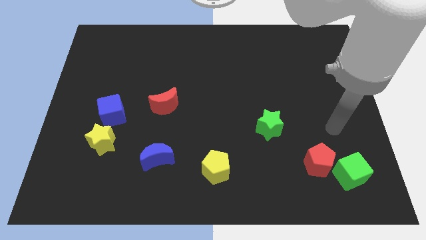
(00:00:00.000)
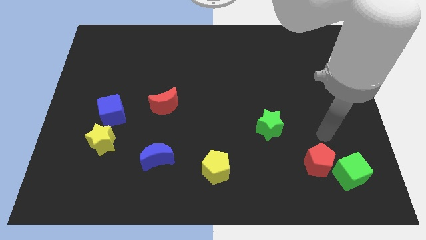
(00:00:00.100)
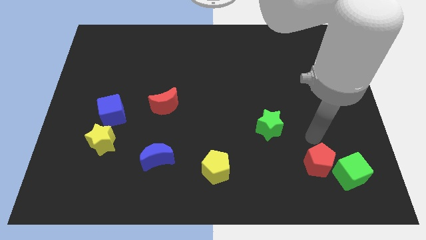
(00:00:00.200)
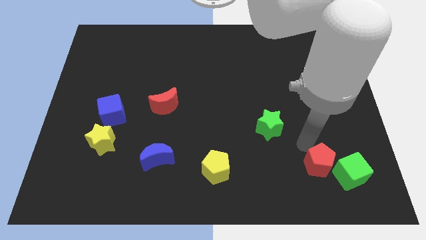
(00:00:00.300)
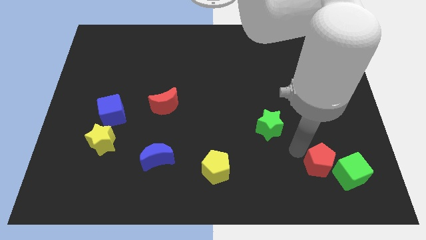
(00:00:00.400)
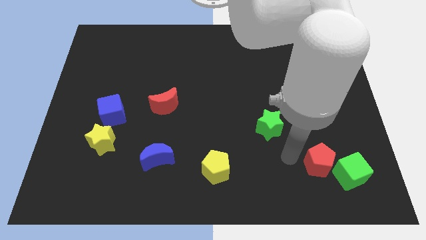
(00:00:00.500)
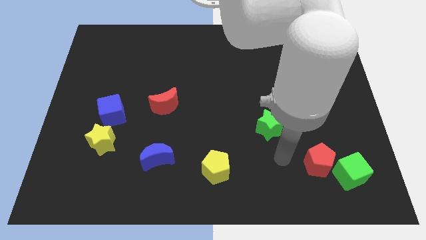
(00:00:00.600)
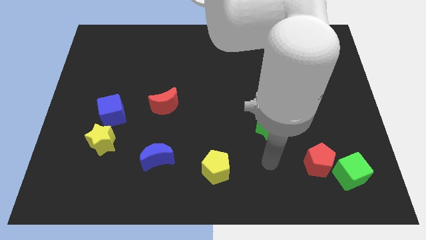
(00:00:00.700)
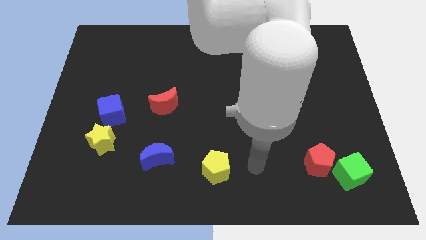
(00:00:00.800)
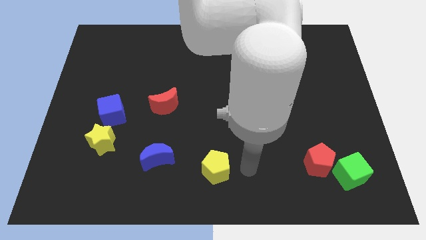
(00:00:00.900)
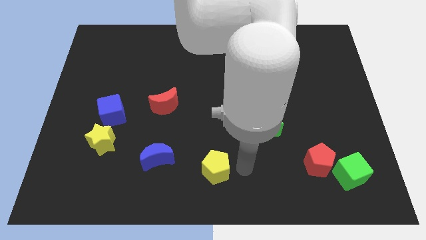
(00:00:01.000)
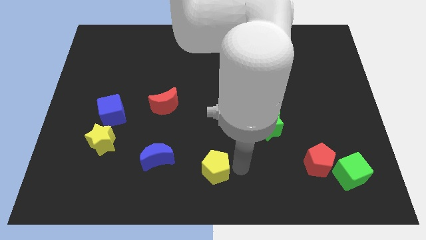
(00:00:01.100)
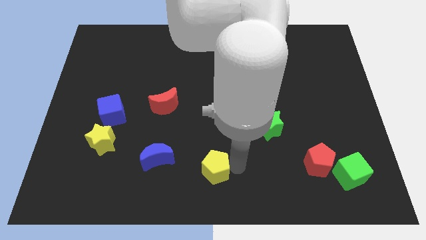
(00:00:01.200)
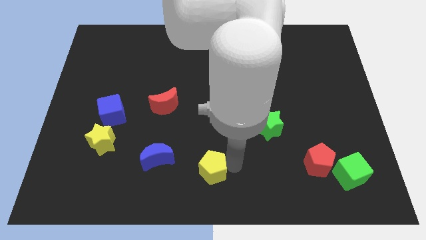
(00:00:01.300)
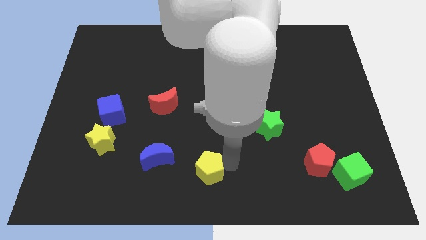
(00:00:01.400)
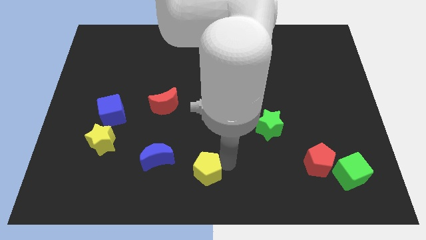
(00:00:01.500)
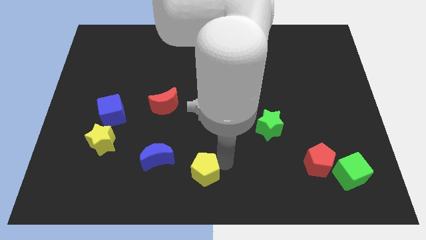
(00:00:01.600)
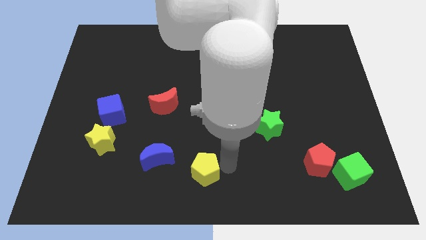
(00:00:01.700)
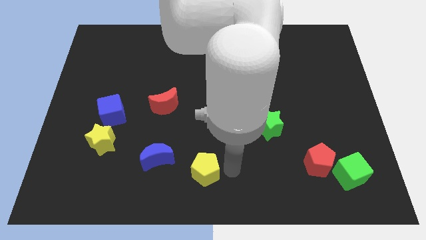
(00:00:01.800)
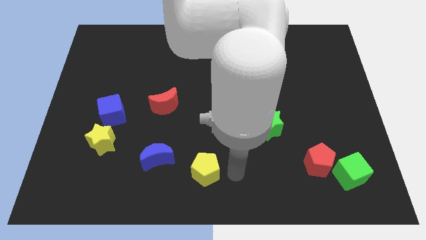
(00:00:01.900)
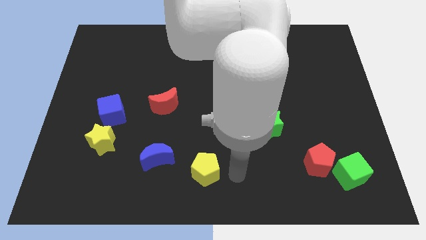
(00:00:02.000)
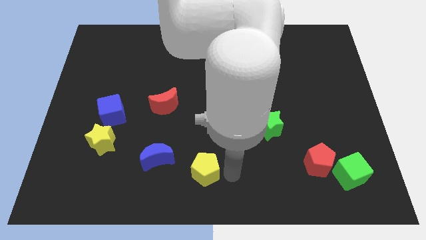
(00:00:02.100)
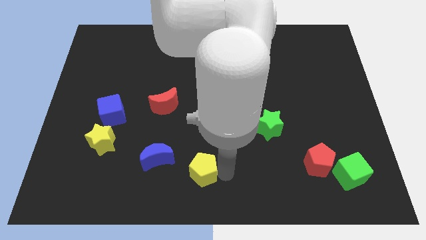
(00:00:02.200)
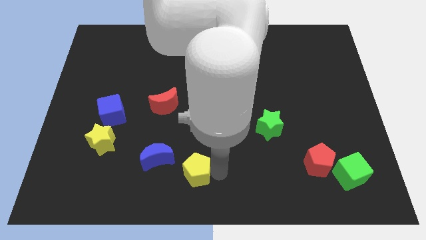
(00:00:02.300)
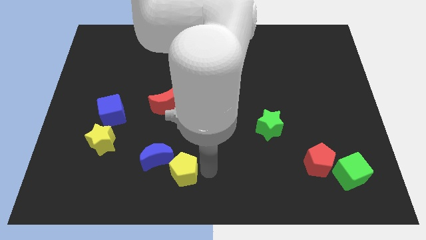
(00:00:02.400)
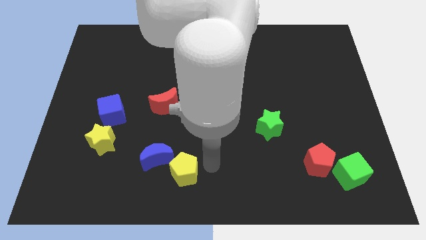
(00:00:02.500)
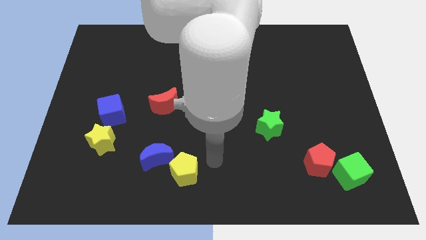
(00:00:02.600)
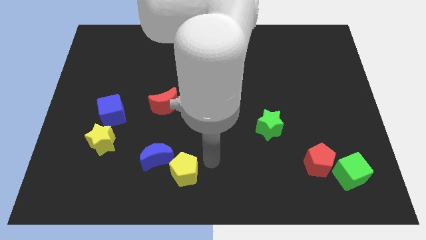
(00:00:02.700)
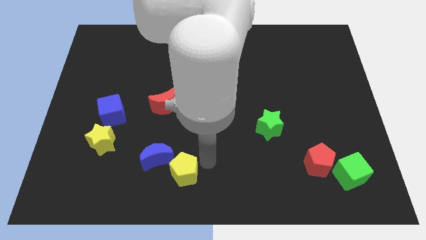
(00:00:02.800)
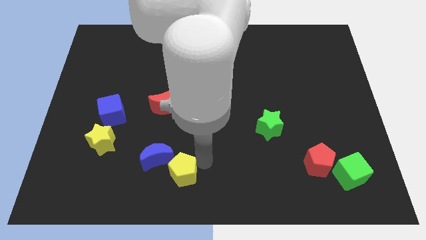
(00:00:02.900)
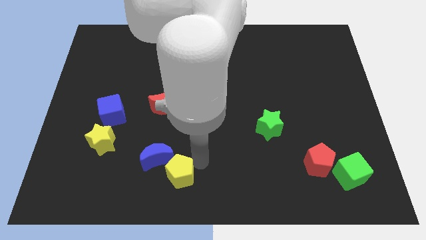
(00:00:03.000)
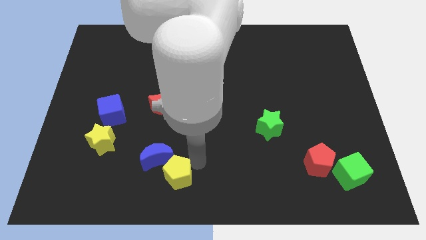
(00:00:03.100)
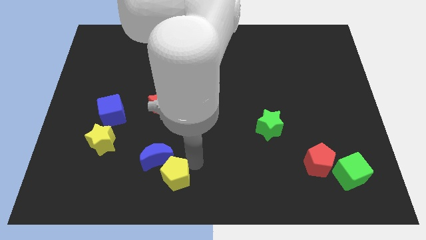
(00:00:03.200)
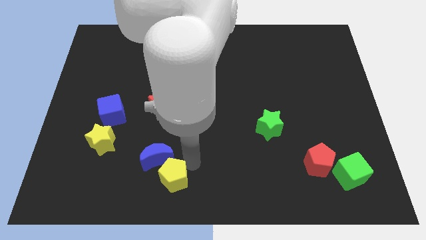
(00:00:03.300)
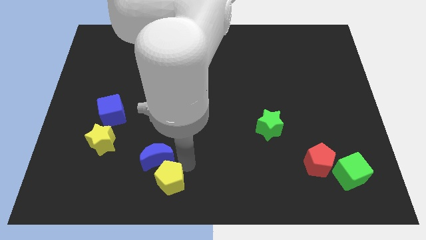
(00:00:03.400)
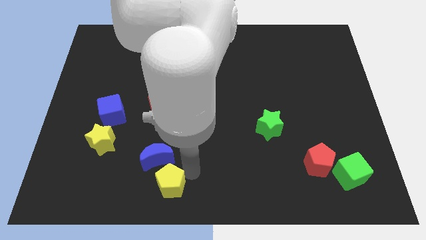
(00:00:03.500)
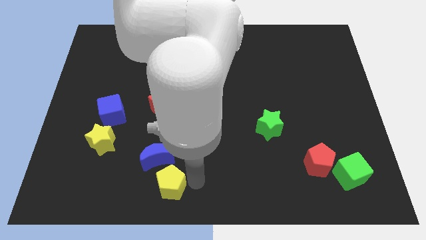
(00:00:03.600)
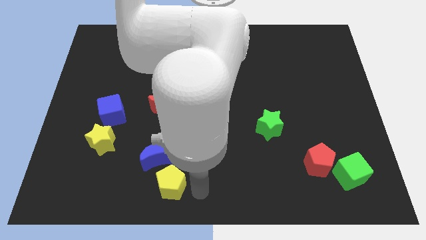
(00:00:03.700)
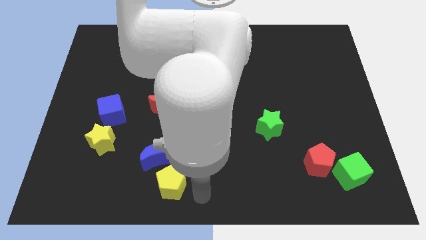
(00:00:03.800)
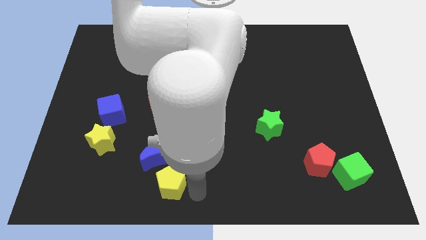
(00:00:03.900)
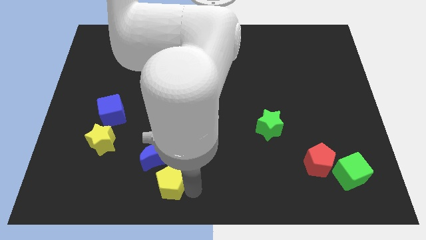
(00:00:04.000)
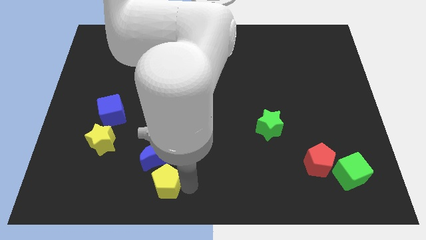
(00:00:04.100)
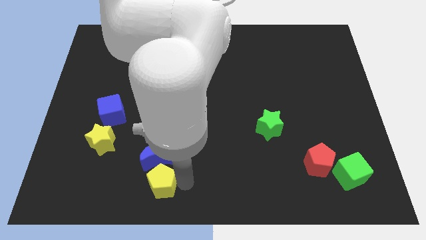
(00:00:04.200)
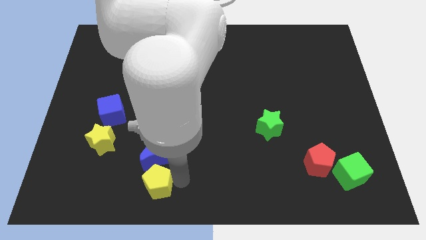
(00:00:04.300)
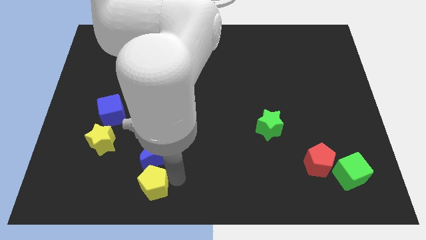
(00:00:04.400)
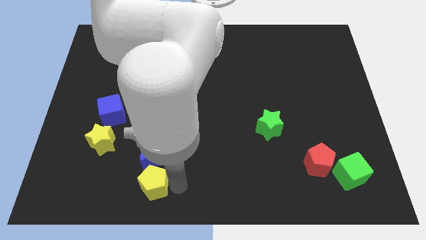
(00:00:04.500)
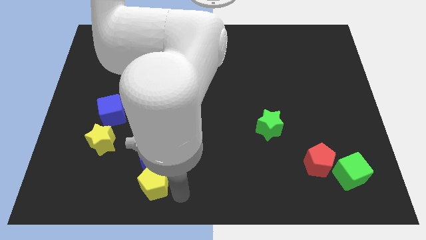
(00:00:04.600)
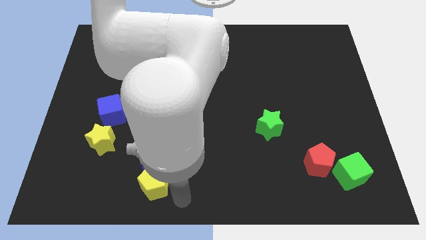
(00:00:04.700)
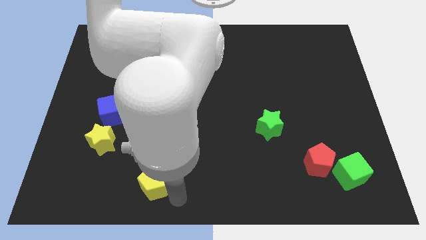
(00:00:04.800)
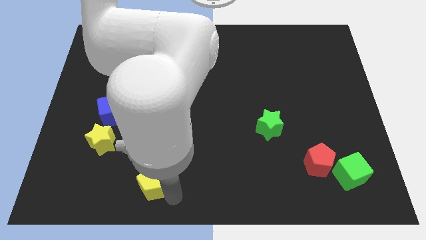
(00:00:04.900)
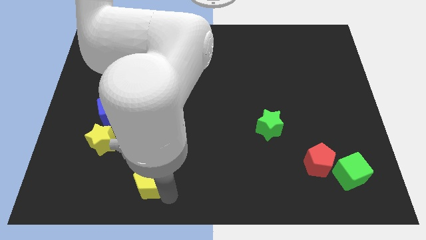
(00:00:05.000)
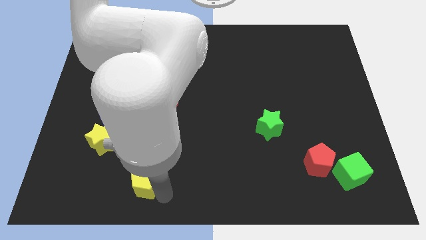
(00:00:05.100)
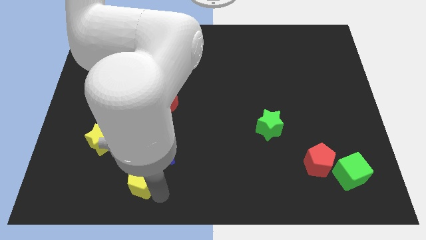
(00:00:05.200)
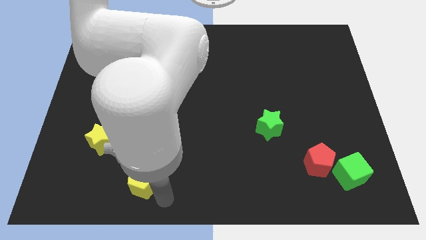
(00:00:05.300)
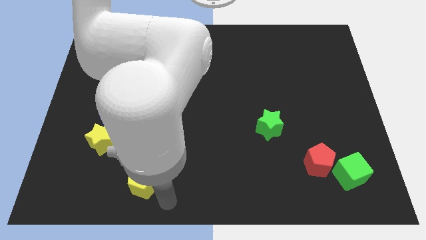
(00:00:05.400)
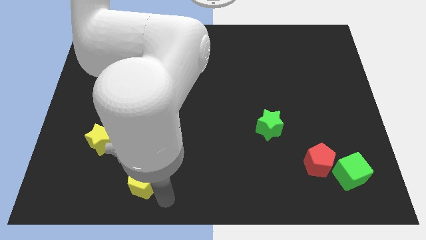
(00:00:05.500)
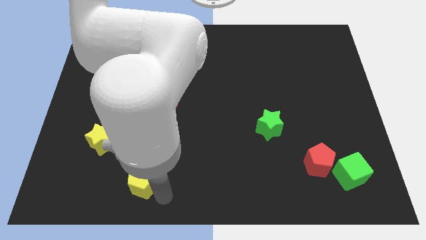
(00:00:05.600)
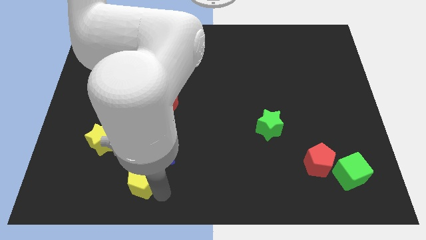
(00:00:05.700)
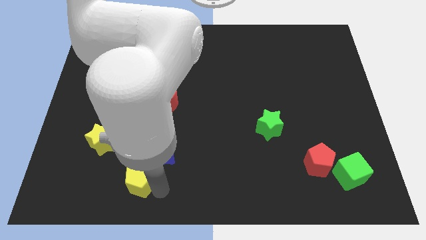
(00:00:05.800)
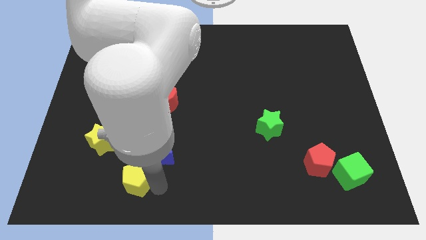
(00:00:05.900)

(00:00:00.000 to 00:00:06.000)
push the yellow pentagon diagonally down and to the right of the yellow star

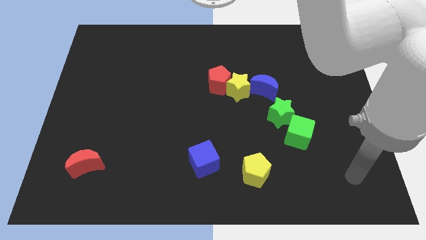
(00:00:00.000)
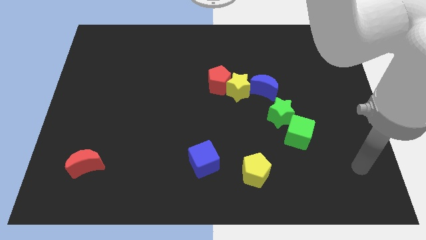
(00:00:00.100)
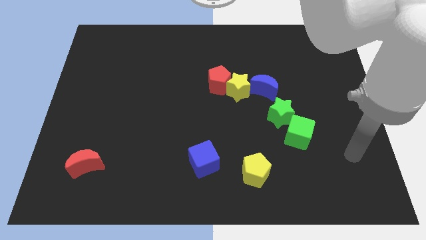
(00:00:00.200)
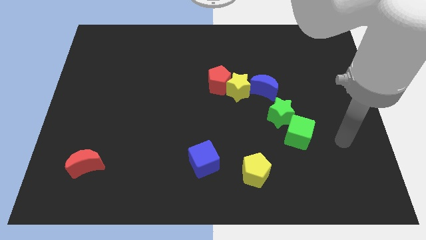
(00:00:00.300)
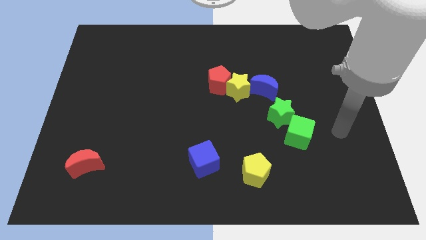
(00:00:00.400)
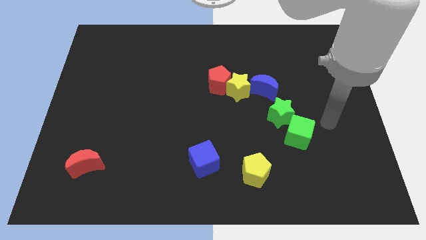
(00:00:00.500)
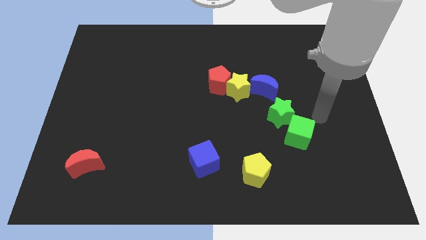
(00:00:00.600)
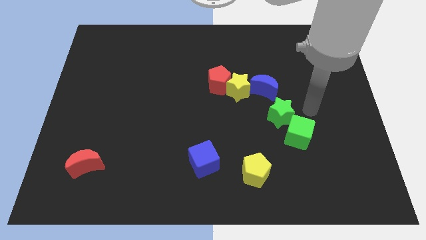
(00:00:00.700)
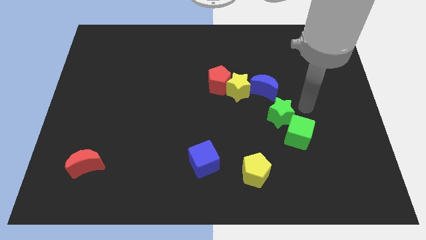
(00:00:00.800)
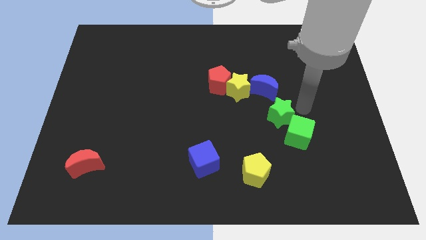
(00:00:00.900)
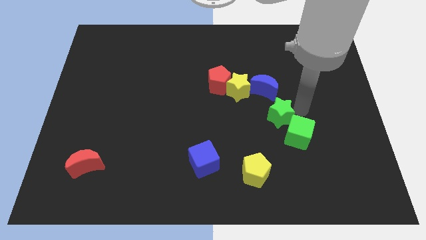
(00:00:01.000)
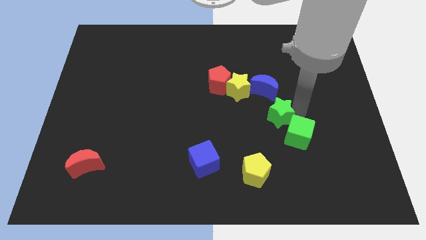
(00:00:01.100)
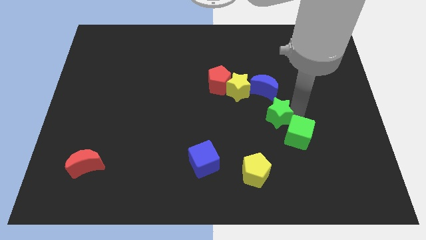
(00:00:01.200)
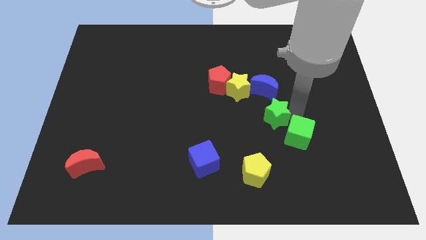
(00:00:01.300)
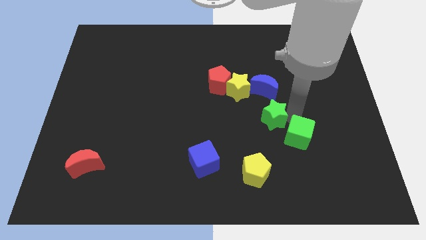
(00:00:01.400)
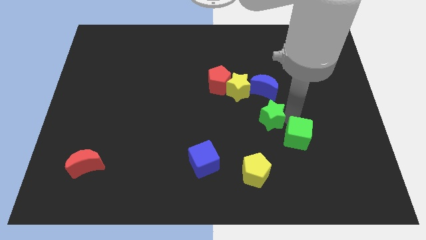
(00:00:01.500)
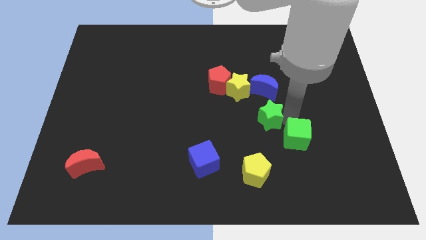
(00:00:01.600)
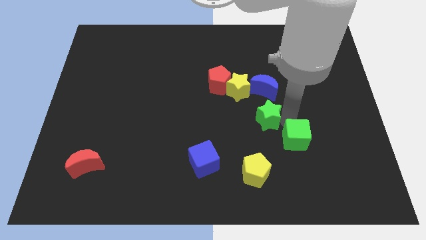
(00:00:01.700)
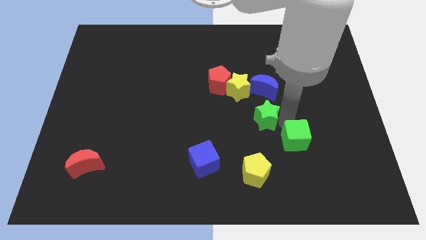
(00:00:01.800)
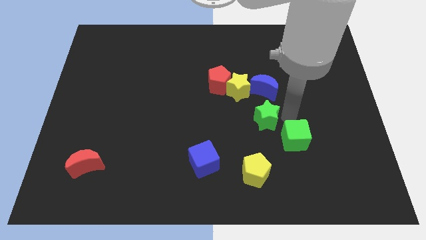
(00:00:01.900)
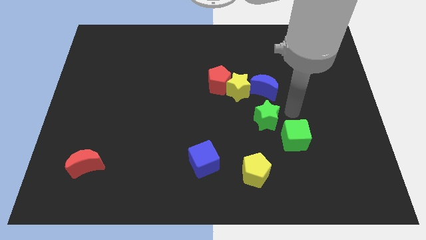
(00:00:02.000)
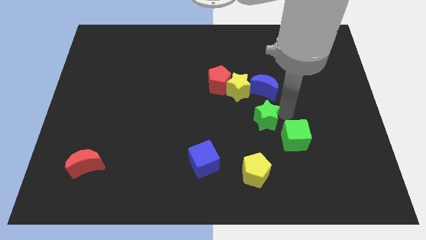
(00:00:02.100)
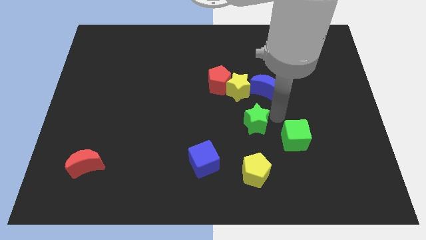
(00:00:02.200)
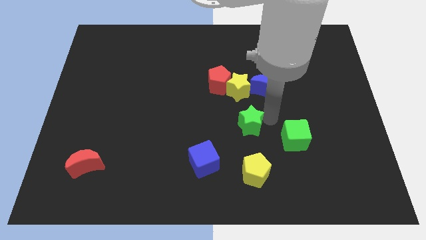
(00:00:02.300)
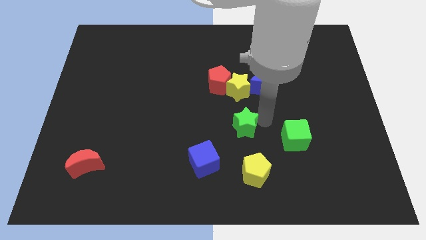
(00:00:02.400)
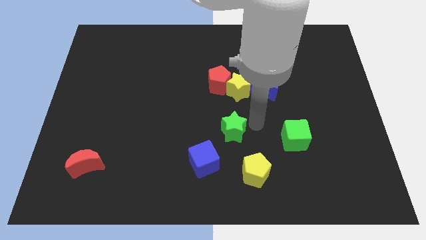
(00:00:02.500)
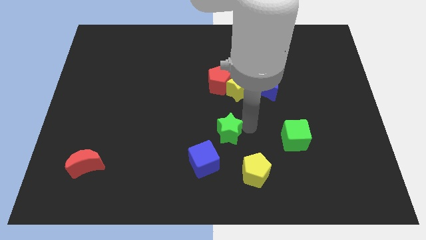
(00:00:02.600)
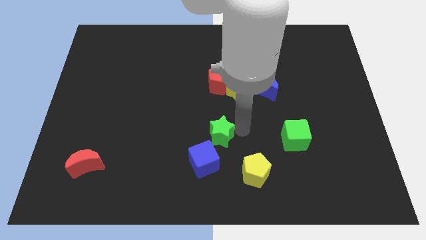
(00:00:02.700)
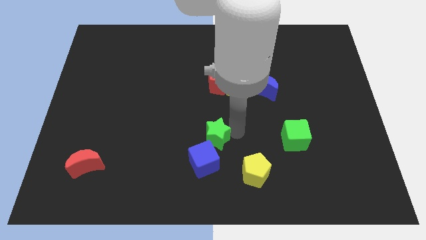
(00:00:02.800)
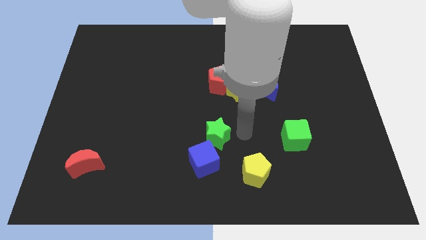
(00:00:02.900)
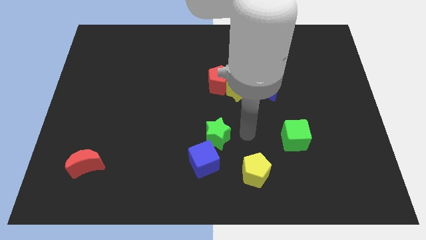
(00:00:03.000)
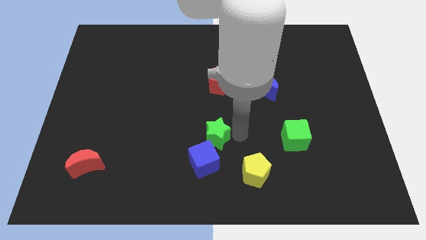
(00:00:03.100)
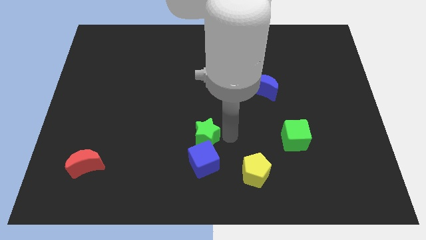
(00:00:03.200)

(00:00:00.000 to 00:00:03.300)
put the green star to the top left side of the blue cube
